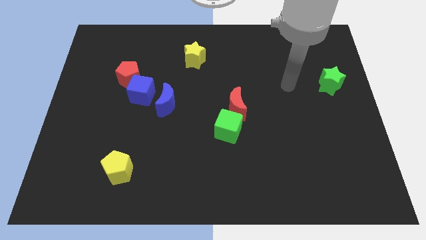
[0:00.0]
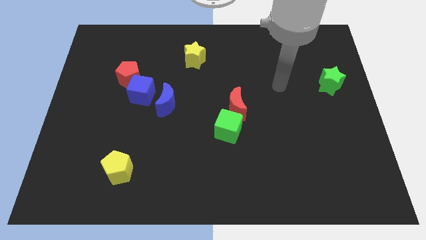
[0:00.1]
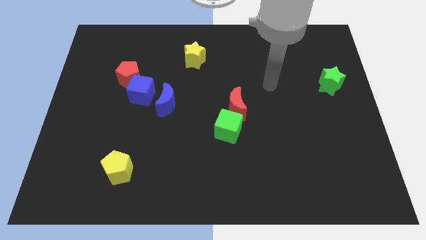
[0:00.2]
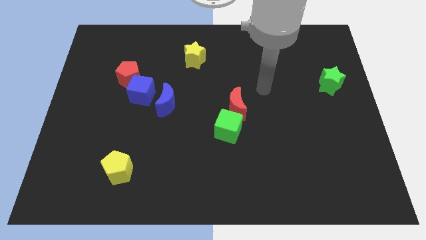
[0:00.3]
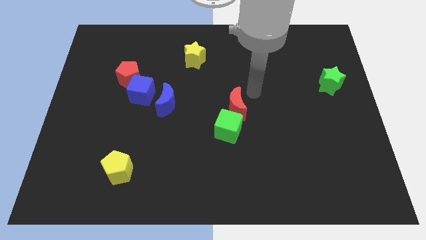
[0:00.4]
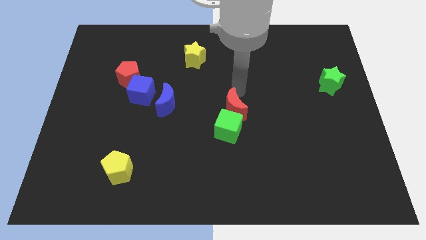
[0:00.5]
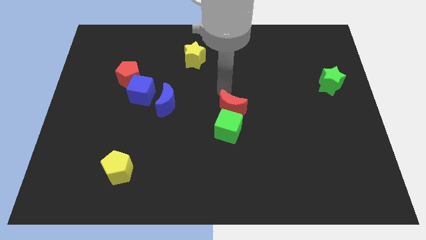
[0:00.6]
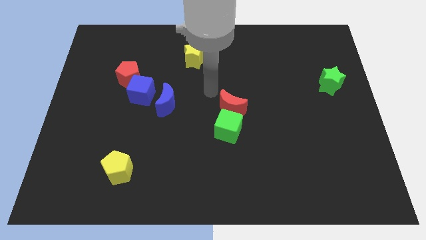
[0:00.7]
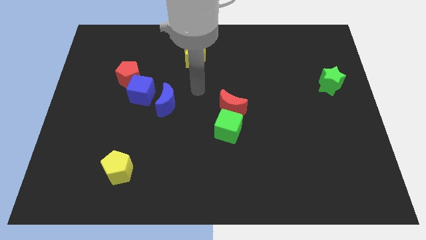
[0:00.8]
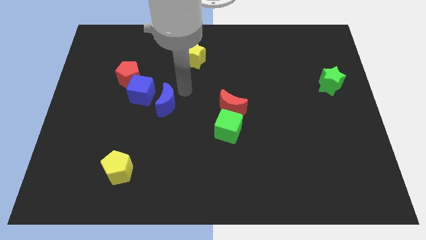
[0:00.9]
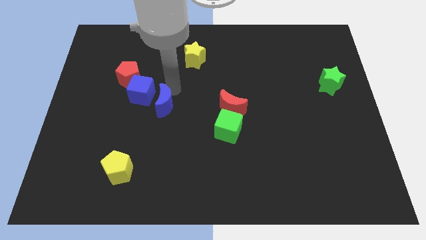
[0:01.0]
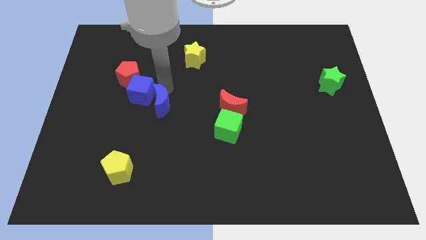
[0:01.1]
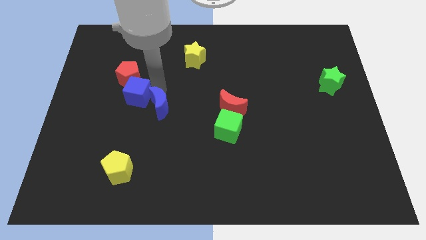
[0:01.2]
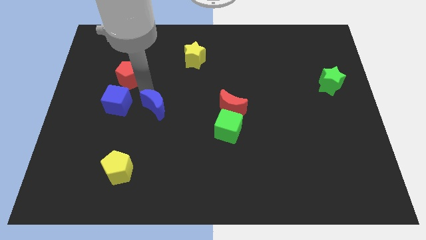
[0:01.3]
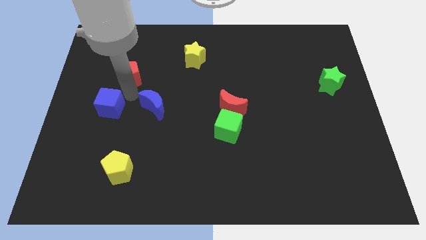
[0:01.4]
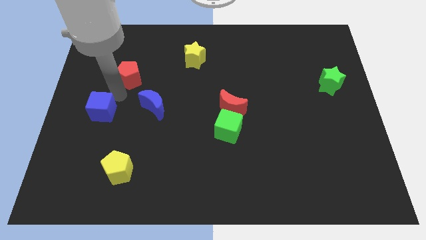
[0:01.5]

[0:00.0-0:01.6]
separate the red pentagon from the blue cube

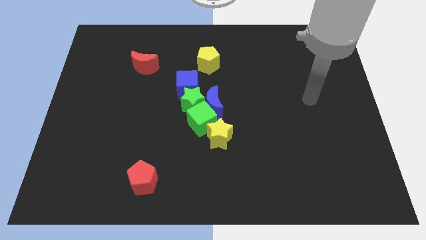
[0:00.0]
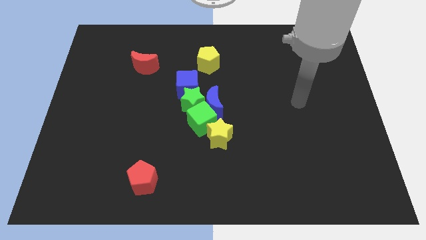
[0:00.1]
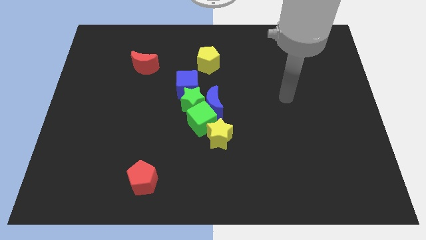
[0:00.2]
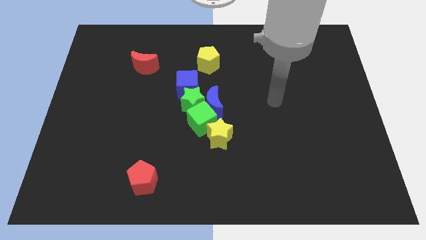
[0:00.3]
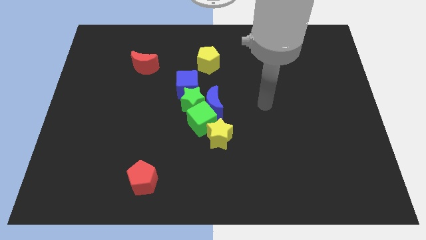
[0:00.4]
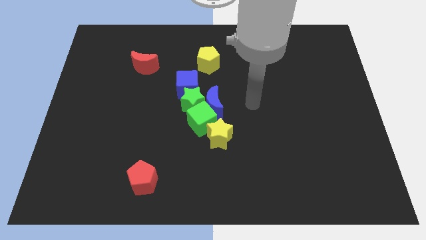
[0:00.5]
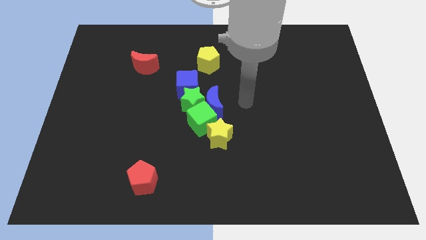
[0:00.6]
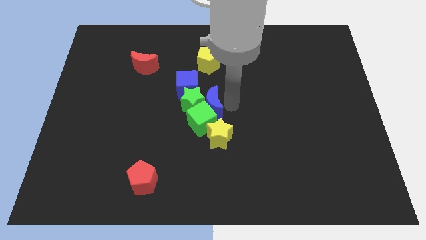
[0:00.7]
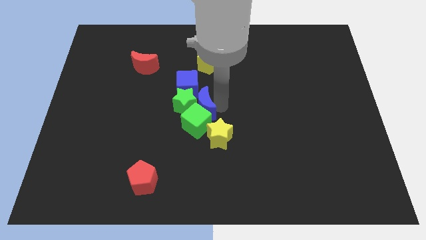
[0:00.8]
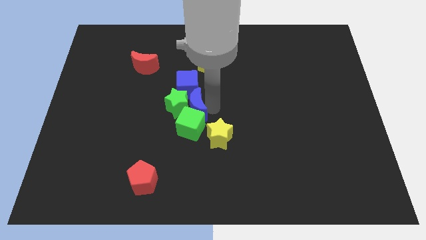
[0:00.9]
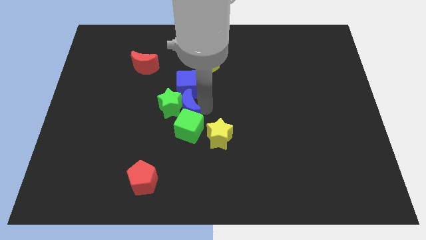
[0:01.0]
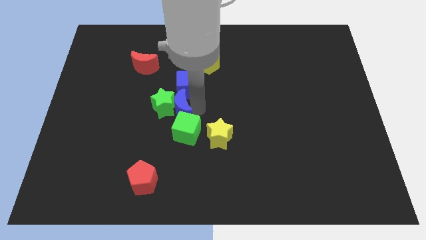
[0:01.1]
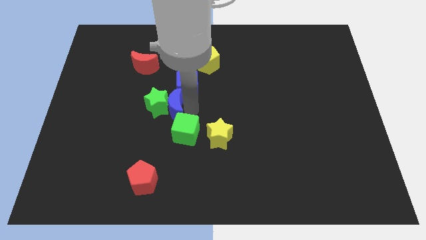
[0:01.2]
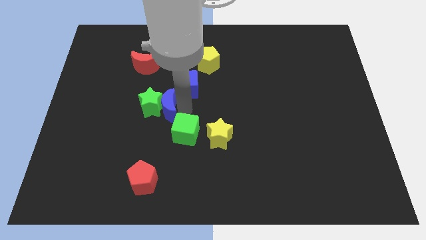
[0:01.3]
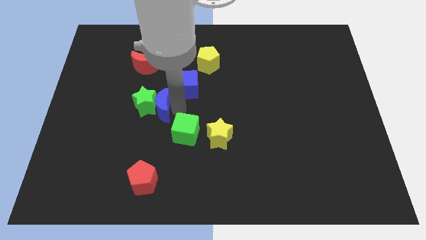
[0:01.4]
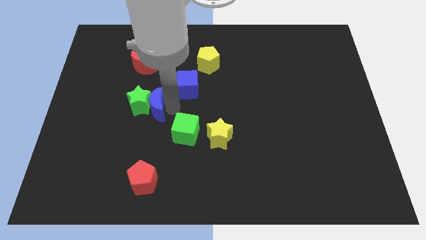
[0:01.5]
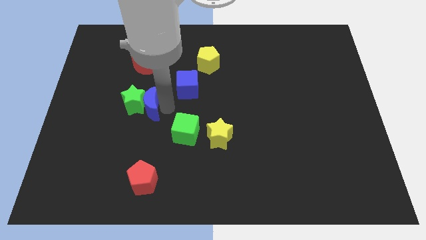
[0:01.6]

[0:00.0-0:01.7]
separate the green star from the blue moon, blue cube, and green cube

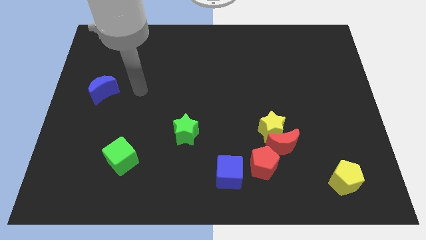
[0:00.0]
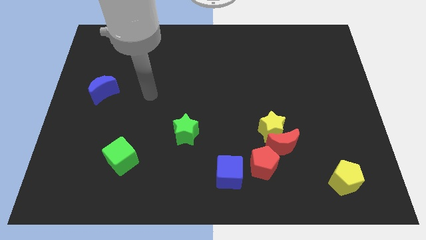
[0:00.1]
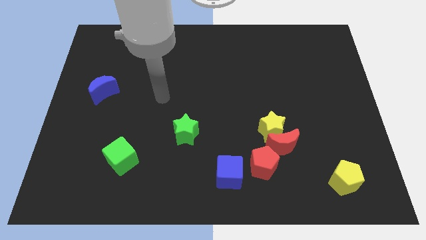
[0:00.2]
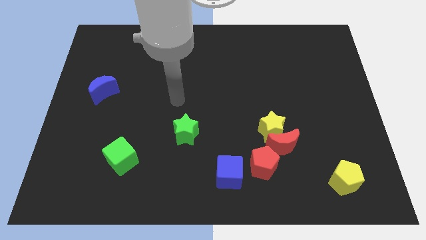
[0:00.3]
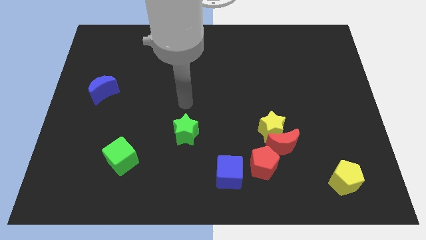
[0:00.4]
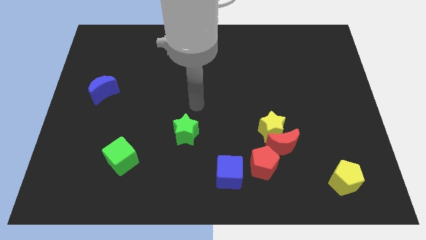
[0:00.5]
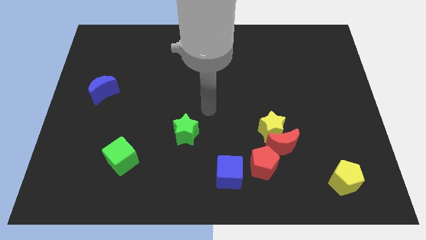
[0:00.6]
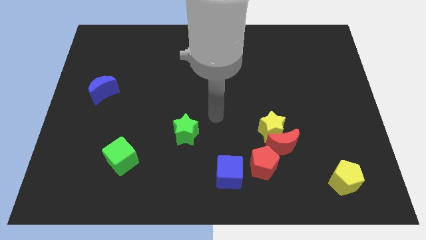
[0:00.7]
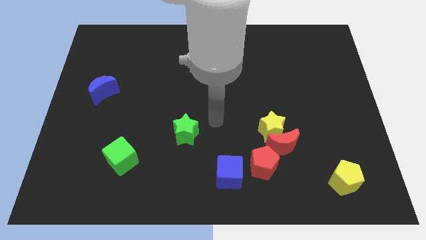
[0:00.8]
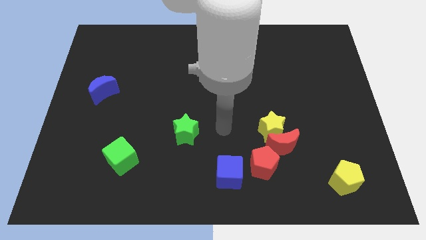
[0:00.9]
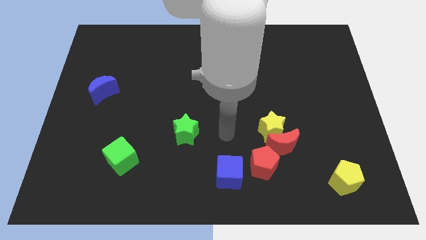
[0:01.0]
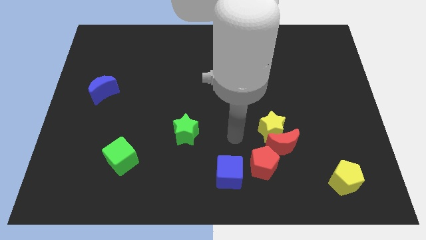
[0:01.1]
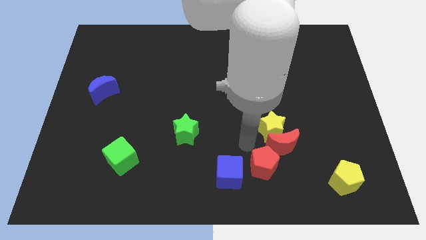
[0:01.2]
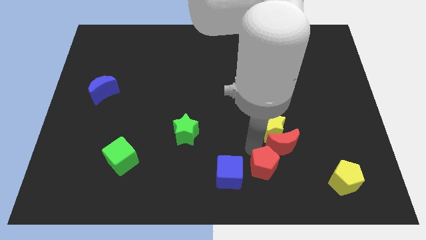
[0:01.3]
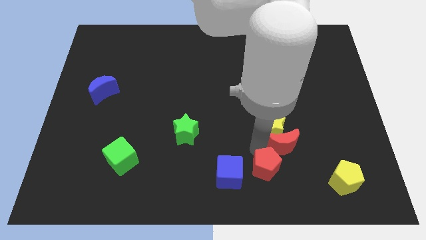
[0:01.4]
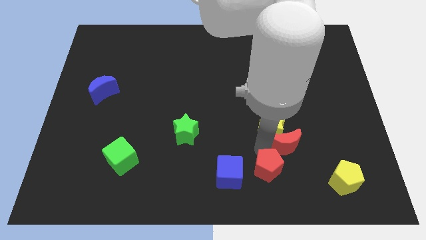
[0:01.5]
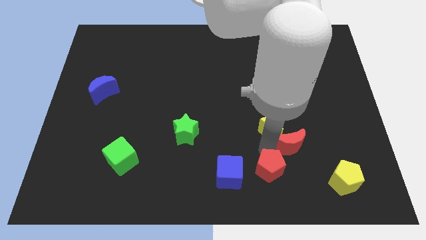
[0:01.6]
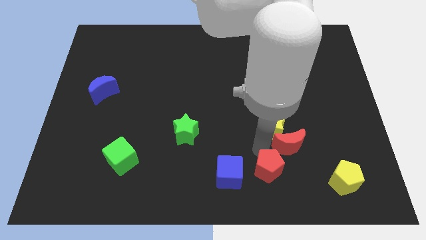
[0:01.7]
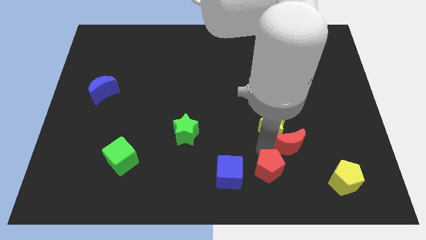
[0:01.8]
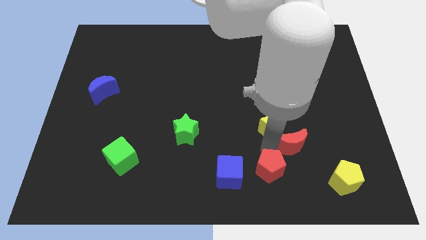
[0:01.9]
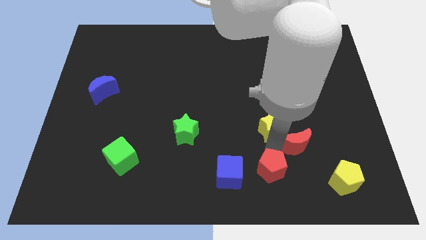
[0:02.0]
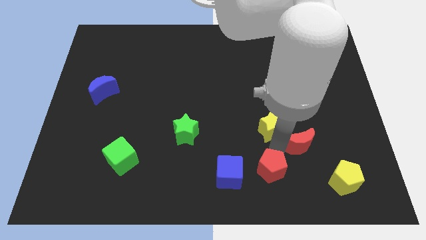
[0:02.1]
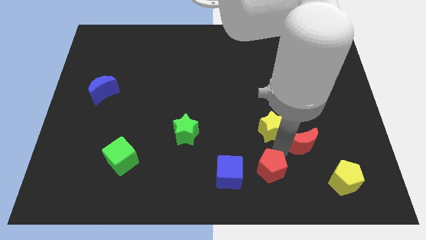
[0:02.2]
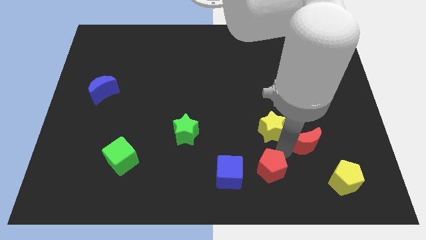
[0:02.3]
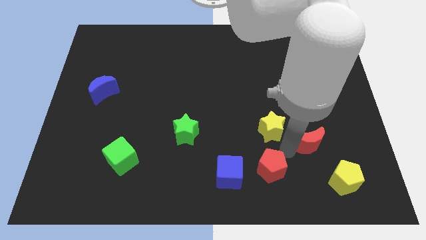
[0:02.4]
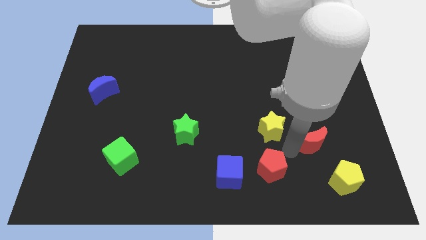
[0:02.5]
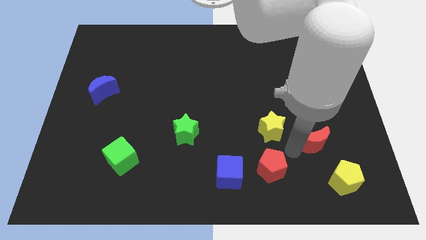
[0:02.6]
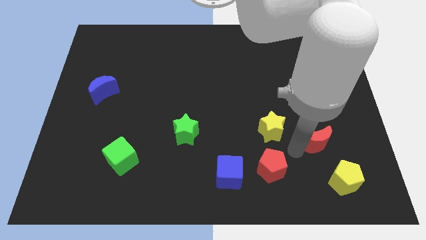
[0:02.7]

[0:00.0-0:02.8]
separate the red moon from the yellow star and red pentagon

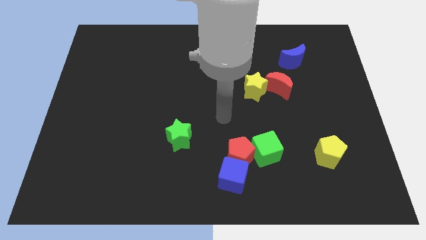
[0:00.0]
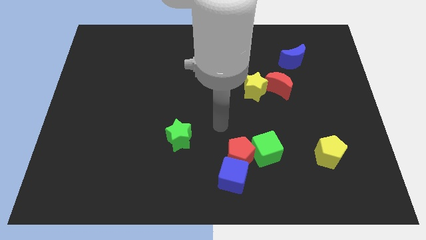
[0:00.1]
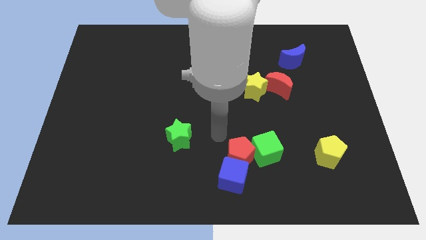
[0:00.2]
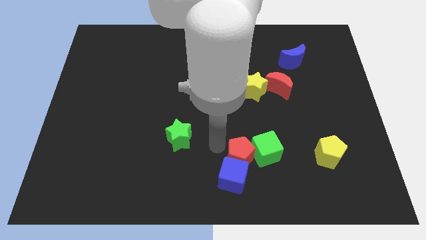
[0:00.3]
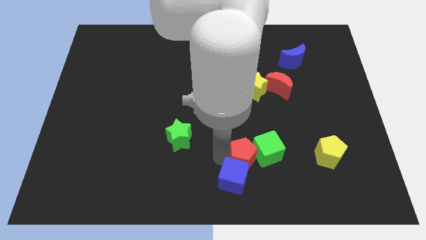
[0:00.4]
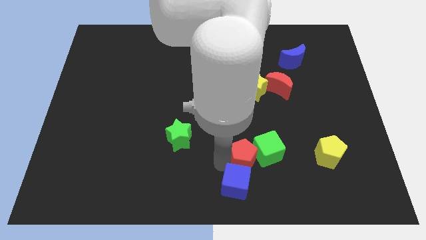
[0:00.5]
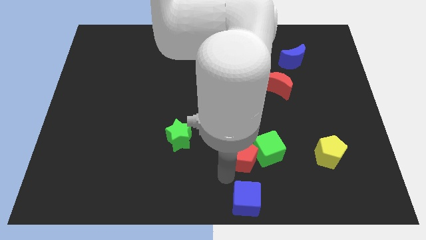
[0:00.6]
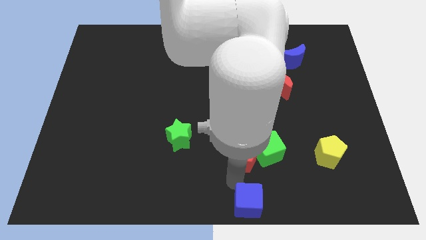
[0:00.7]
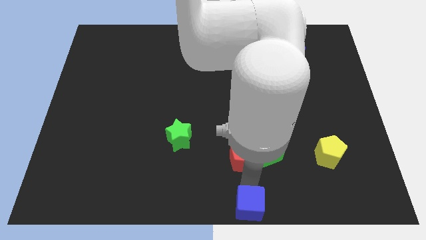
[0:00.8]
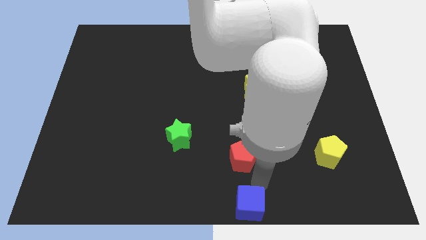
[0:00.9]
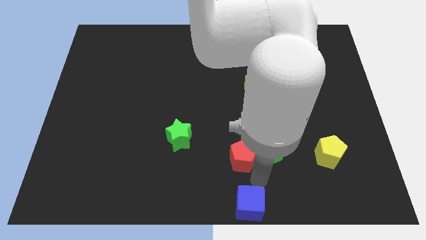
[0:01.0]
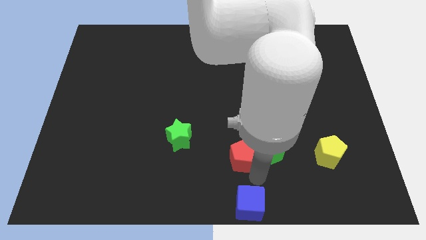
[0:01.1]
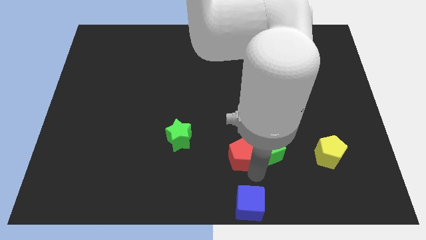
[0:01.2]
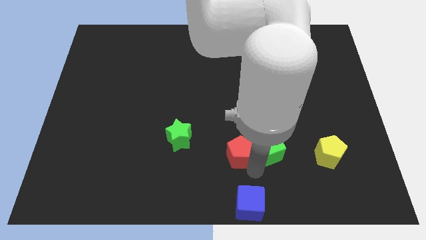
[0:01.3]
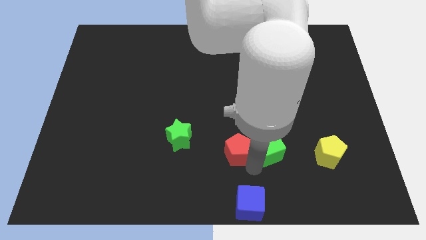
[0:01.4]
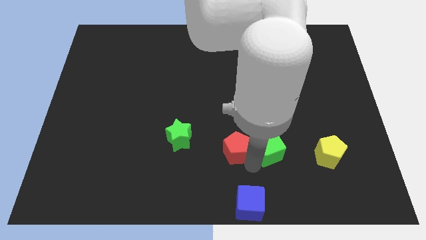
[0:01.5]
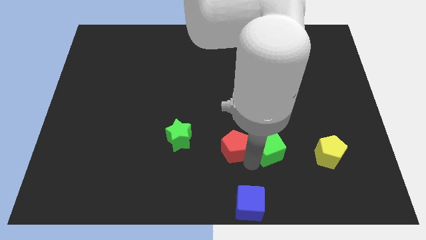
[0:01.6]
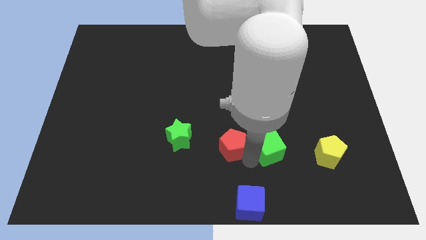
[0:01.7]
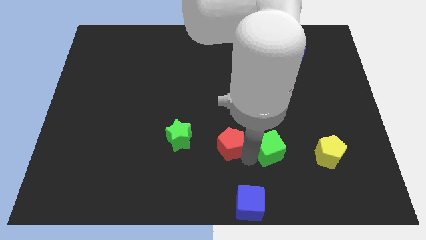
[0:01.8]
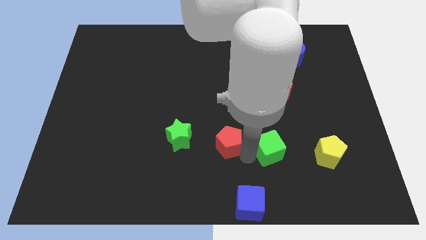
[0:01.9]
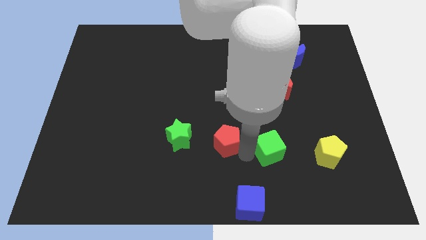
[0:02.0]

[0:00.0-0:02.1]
move the red pentagon away from the blue cube and green cube

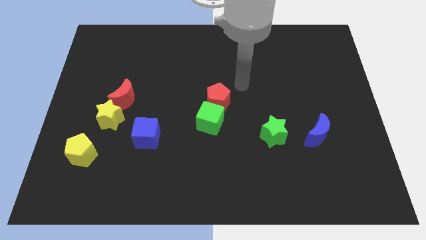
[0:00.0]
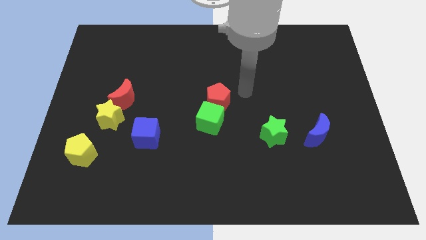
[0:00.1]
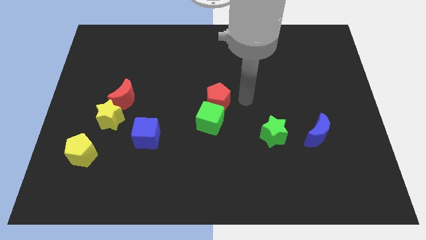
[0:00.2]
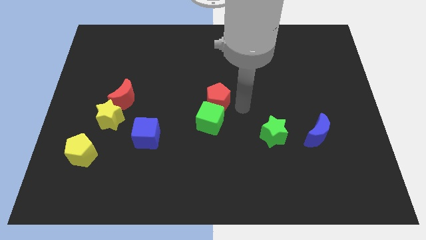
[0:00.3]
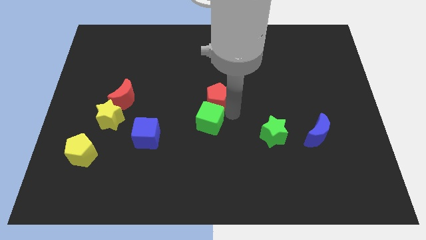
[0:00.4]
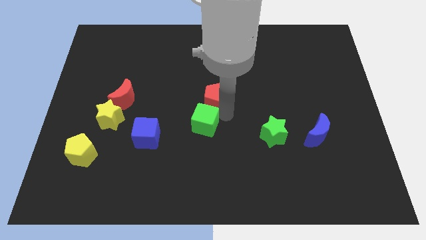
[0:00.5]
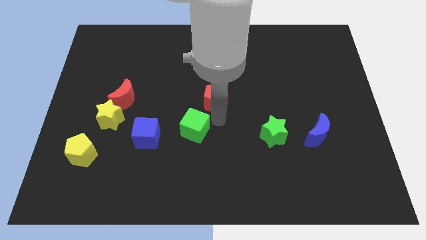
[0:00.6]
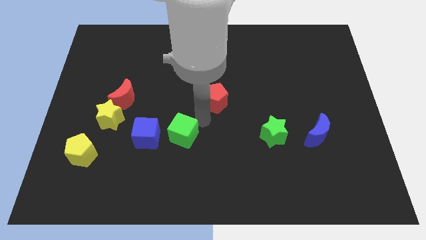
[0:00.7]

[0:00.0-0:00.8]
separate the red pentagon from the green cube

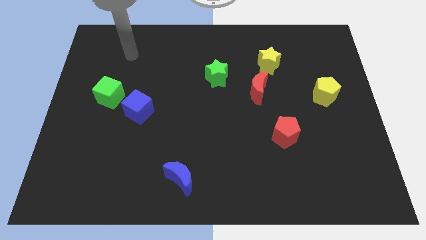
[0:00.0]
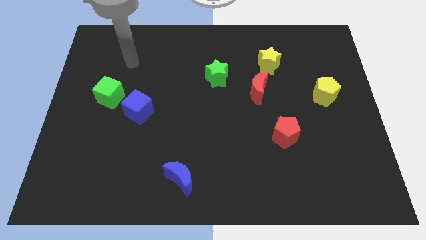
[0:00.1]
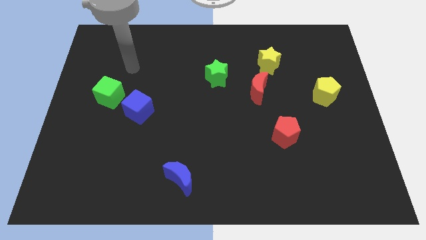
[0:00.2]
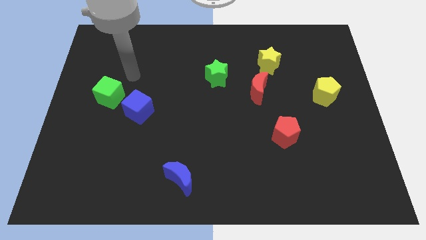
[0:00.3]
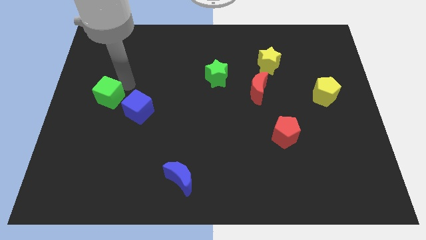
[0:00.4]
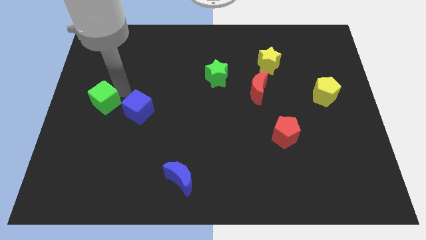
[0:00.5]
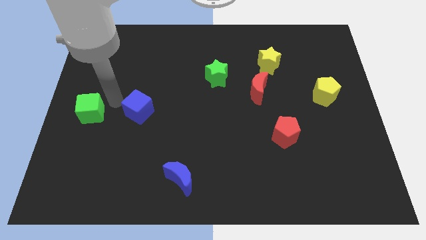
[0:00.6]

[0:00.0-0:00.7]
pull the blue cube apart from the green cube
